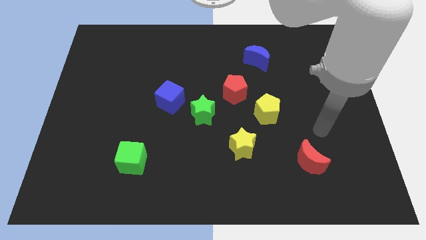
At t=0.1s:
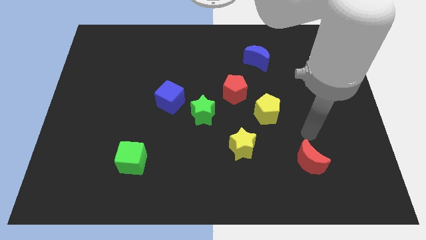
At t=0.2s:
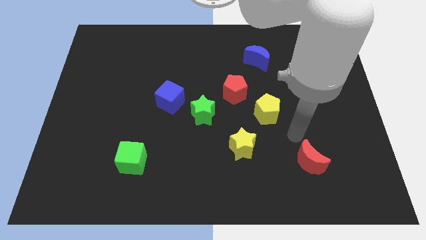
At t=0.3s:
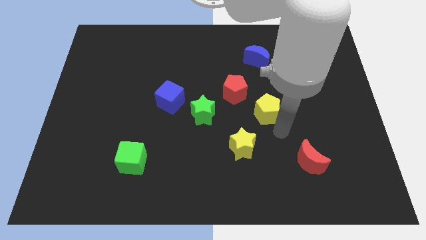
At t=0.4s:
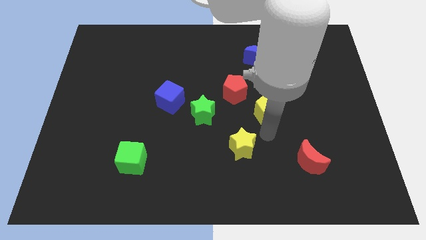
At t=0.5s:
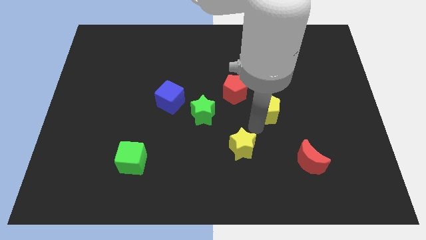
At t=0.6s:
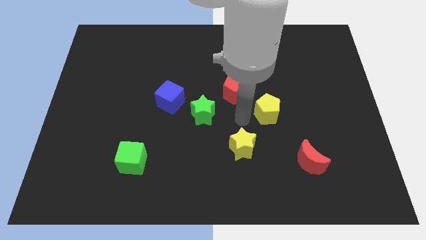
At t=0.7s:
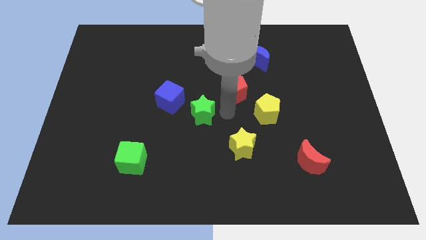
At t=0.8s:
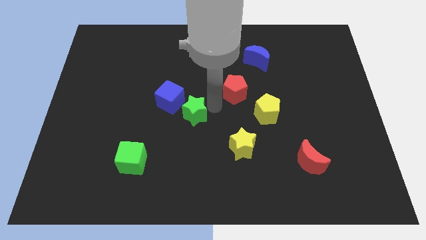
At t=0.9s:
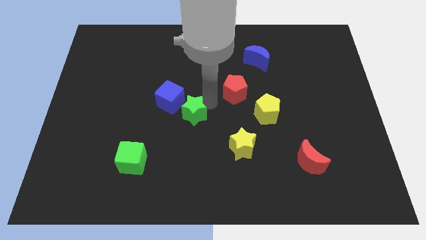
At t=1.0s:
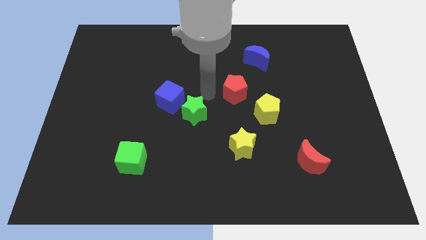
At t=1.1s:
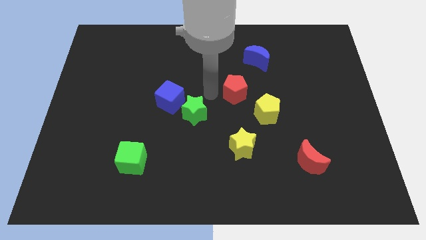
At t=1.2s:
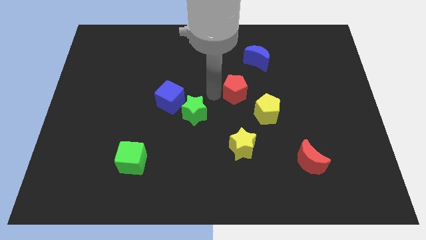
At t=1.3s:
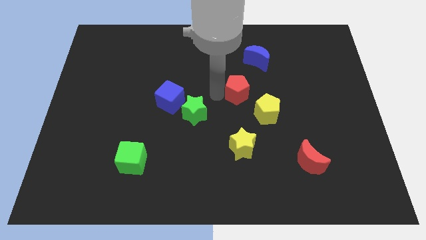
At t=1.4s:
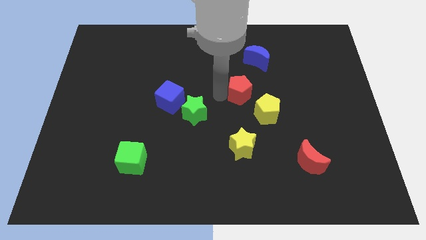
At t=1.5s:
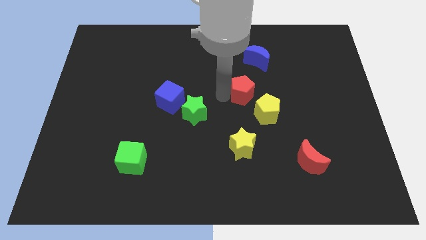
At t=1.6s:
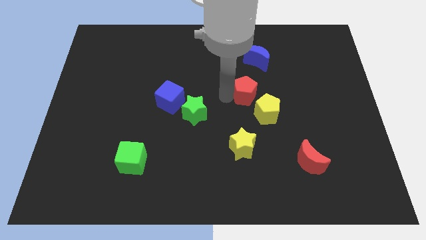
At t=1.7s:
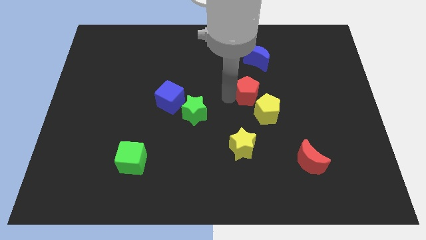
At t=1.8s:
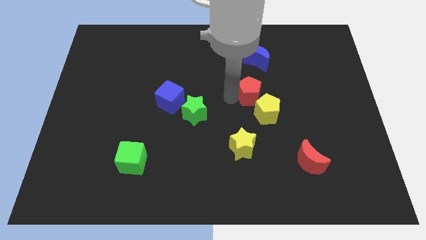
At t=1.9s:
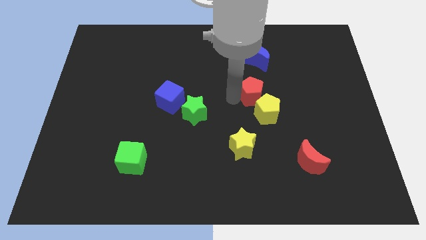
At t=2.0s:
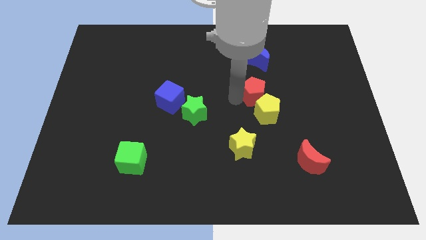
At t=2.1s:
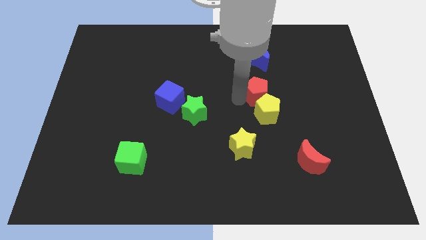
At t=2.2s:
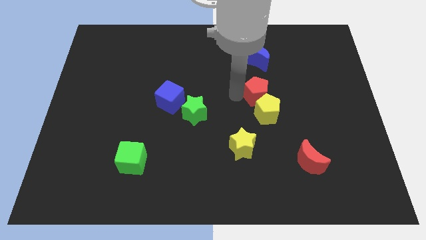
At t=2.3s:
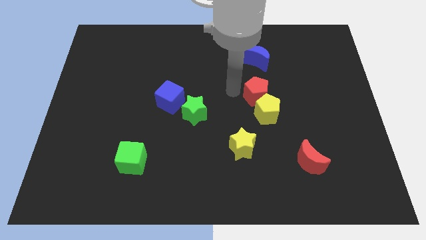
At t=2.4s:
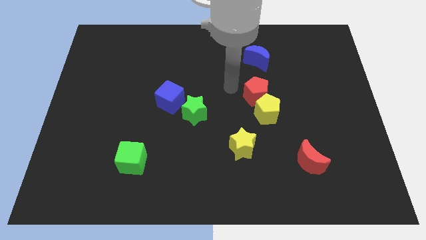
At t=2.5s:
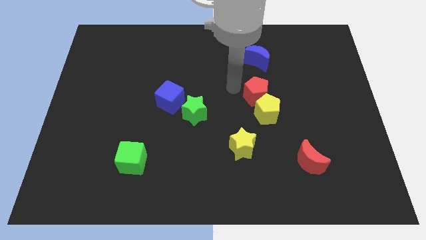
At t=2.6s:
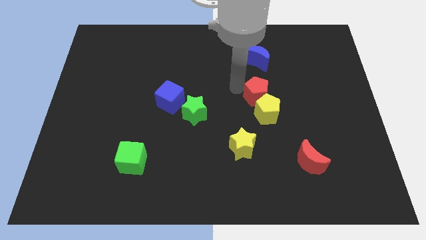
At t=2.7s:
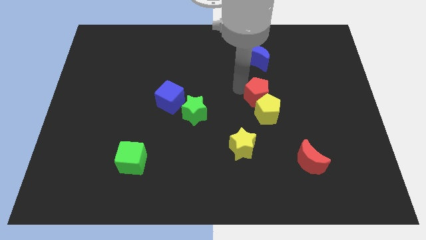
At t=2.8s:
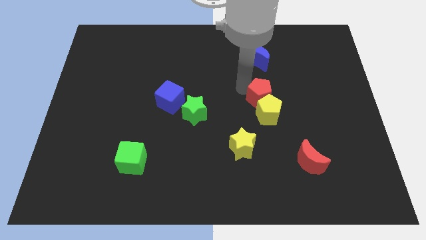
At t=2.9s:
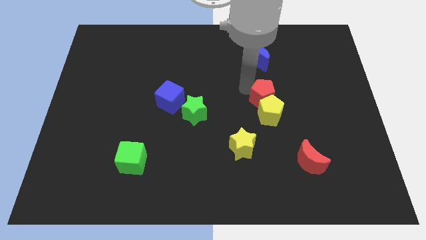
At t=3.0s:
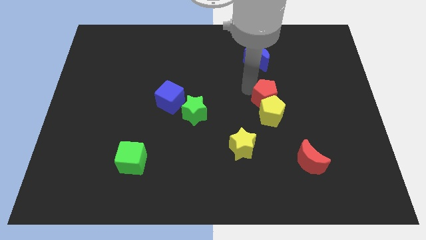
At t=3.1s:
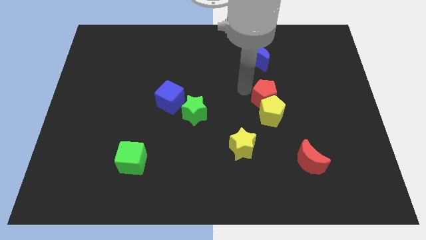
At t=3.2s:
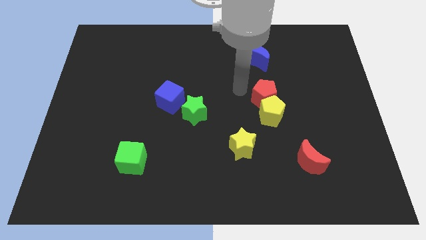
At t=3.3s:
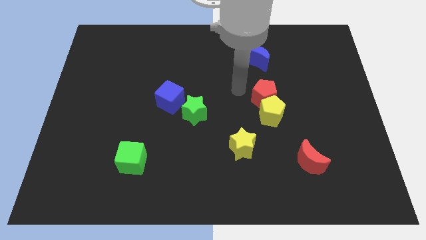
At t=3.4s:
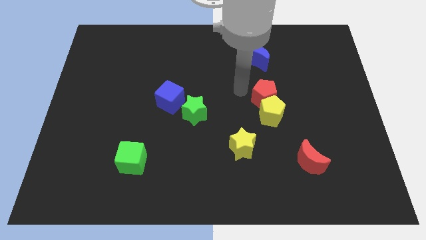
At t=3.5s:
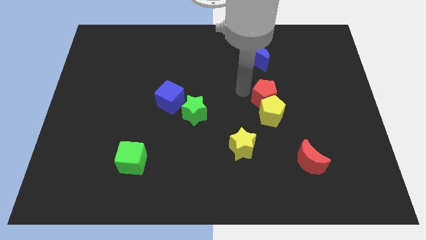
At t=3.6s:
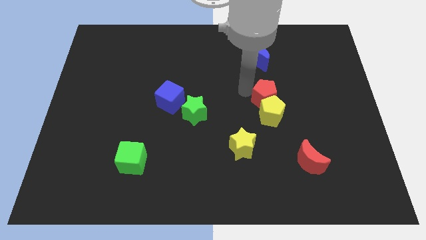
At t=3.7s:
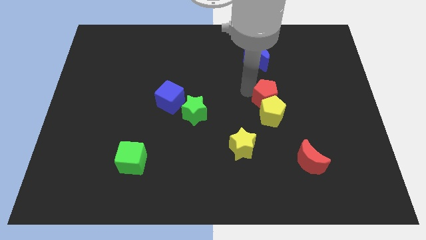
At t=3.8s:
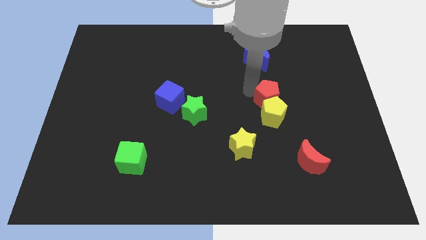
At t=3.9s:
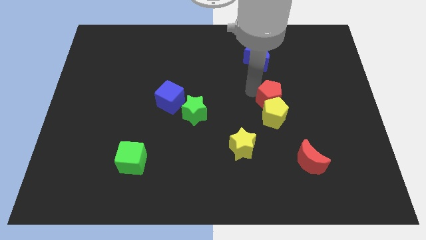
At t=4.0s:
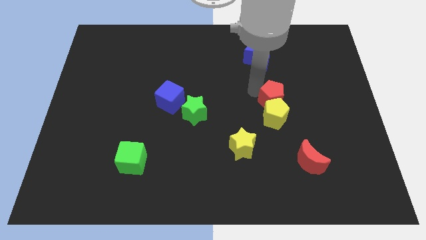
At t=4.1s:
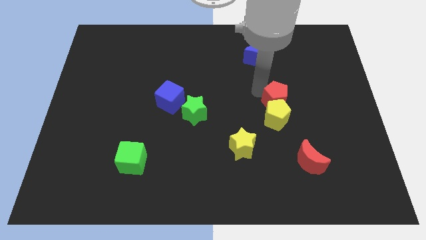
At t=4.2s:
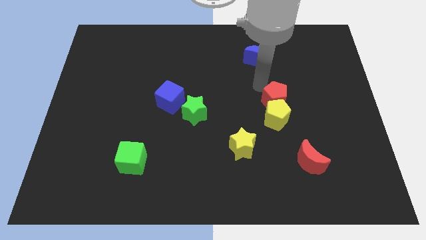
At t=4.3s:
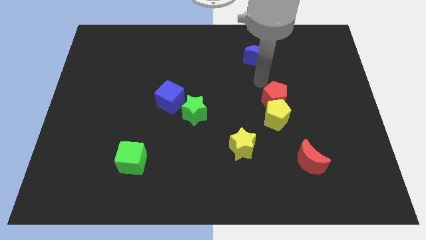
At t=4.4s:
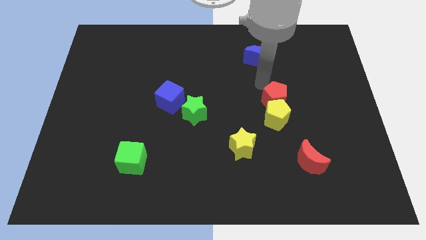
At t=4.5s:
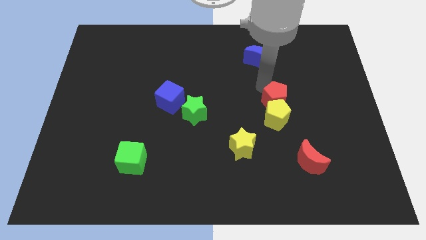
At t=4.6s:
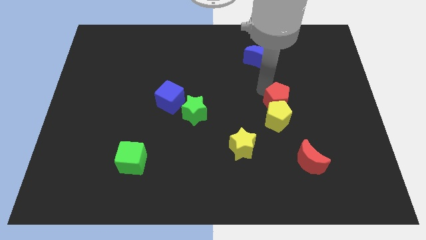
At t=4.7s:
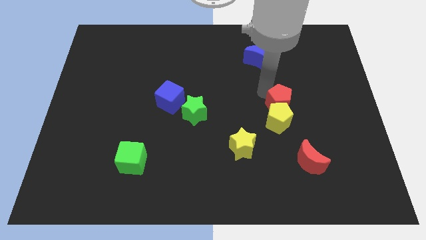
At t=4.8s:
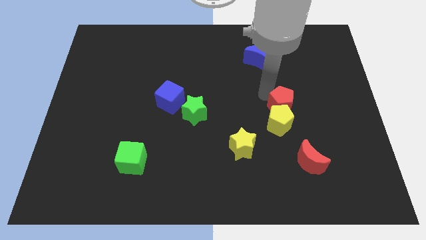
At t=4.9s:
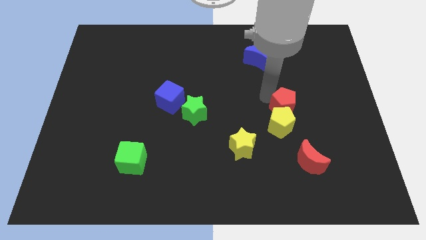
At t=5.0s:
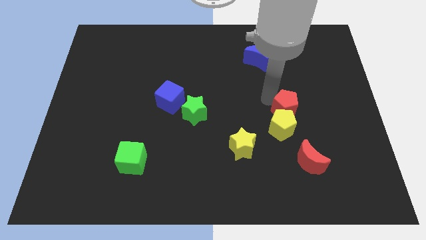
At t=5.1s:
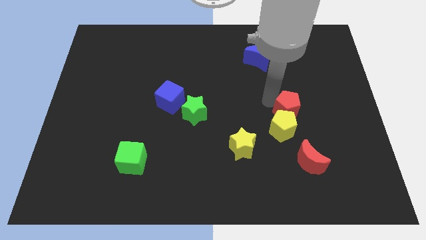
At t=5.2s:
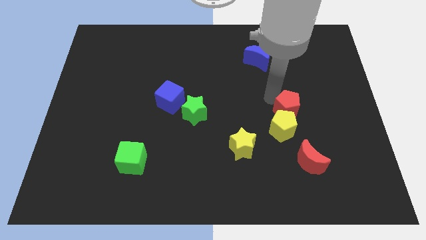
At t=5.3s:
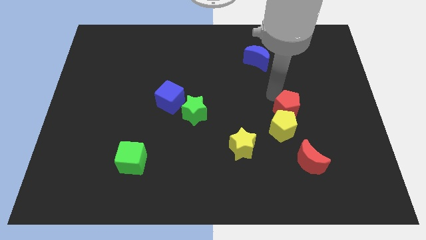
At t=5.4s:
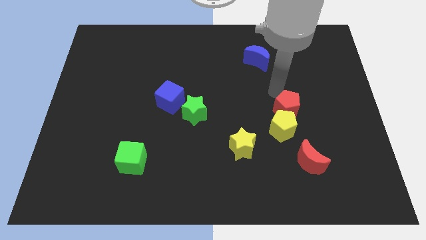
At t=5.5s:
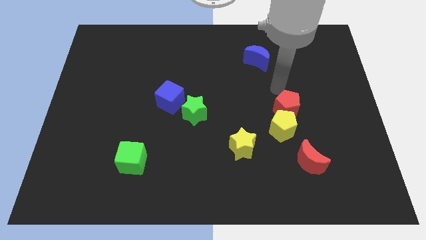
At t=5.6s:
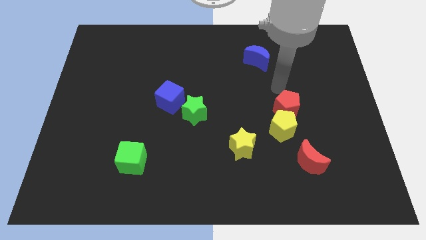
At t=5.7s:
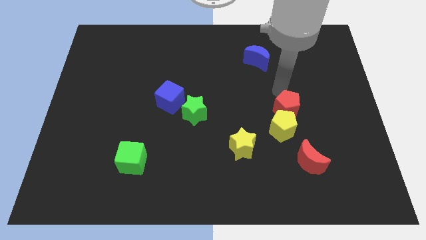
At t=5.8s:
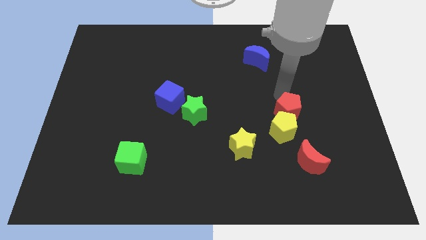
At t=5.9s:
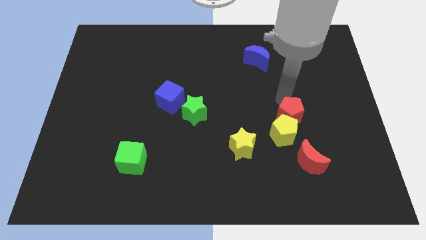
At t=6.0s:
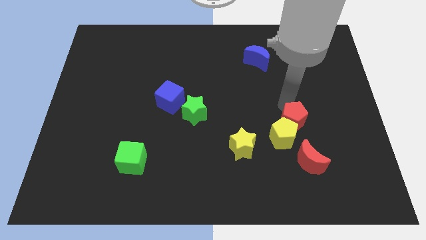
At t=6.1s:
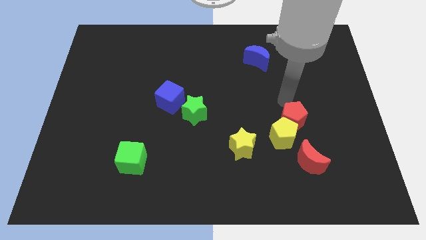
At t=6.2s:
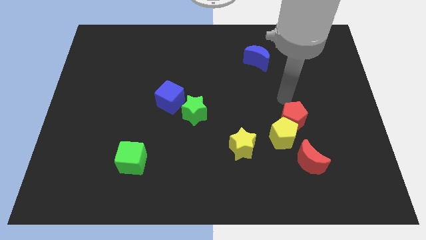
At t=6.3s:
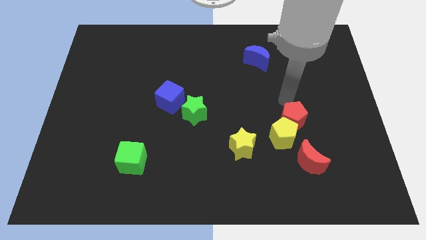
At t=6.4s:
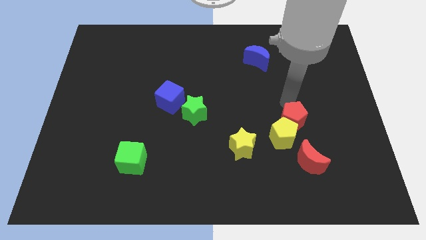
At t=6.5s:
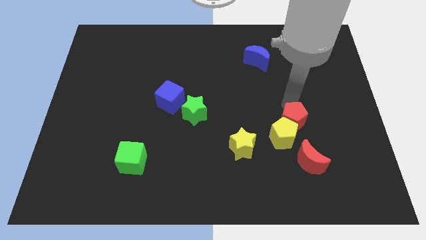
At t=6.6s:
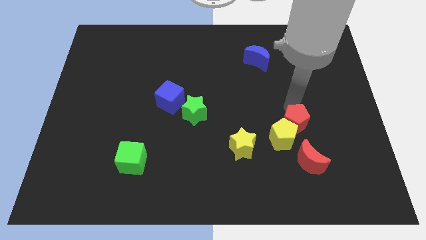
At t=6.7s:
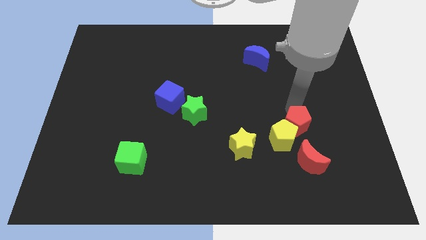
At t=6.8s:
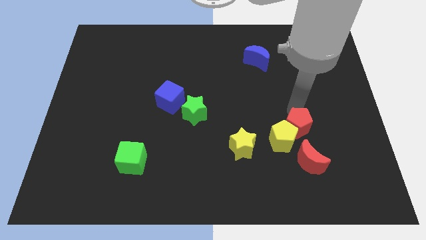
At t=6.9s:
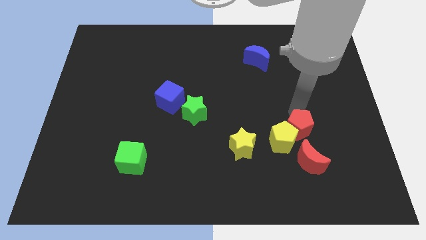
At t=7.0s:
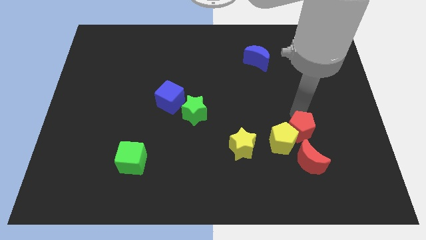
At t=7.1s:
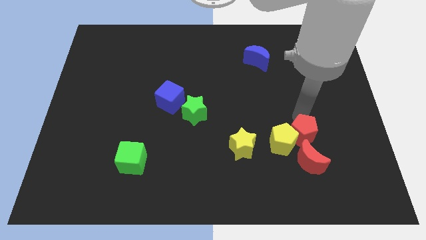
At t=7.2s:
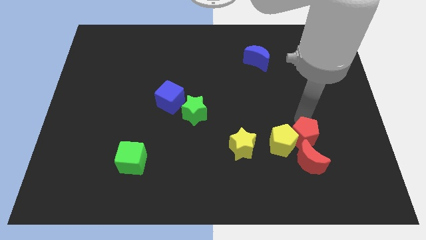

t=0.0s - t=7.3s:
slide the red pentagon towards the red moon

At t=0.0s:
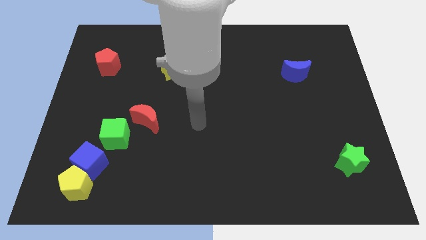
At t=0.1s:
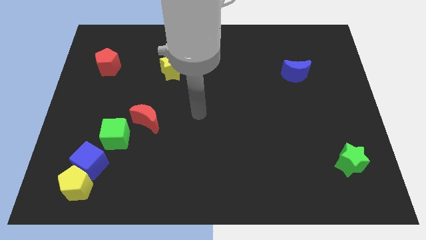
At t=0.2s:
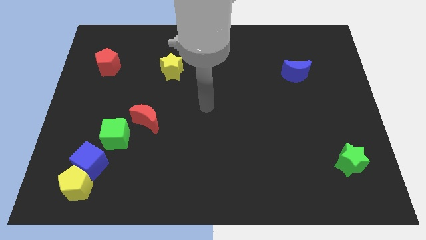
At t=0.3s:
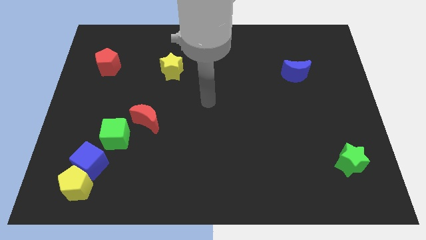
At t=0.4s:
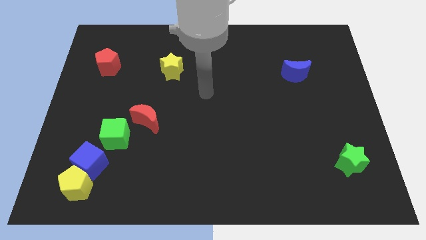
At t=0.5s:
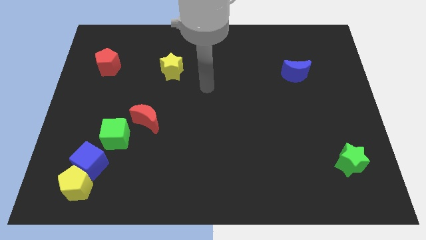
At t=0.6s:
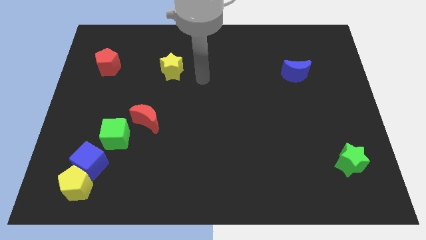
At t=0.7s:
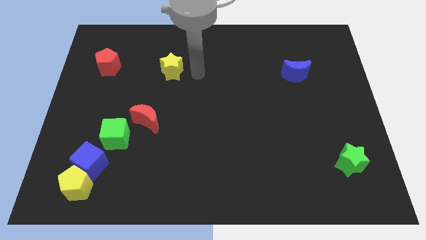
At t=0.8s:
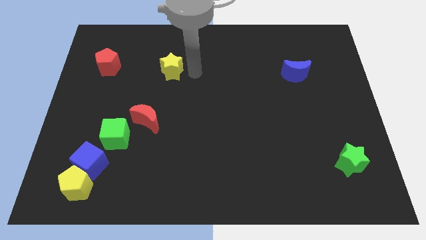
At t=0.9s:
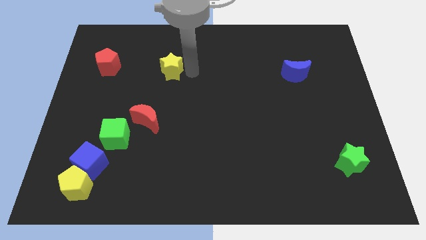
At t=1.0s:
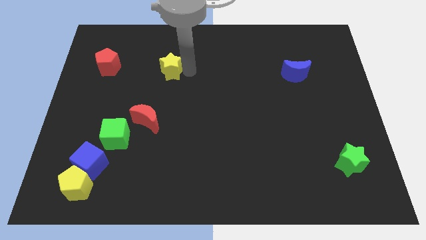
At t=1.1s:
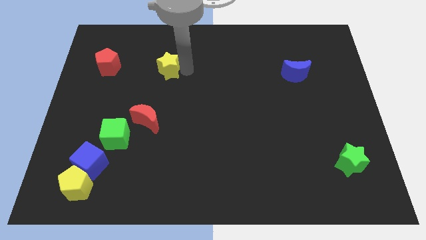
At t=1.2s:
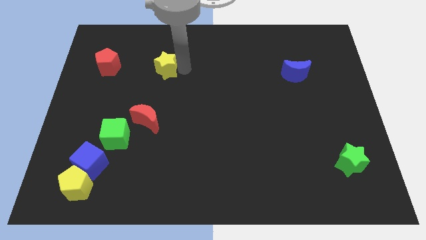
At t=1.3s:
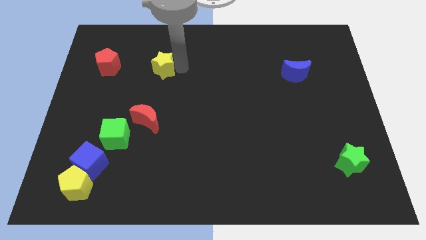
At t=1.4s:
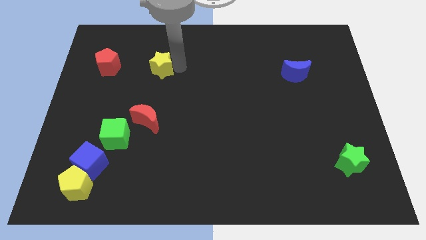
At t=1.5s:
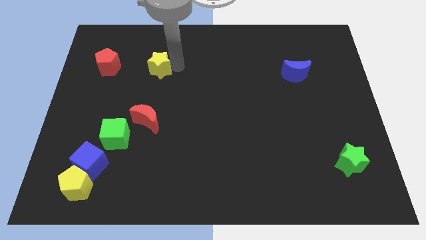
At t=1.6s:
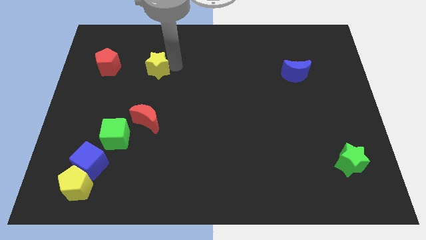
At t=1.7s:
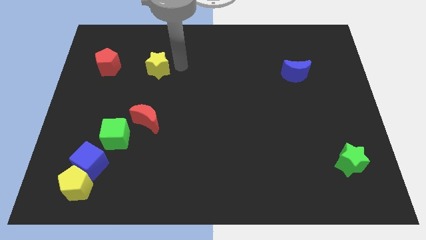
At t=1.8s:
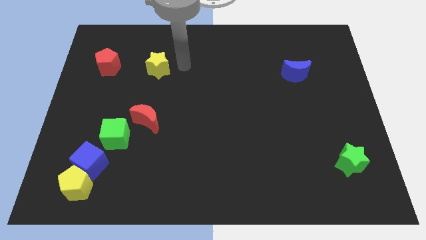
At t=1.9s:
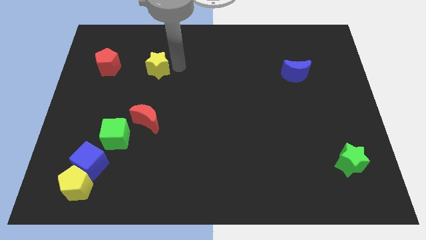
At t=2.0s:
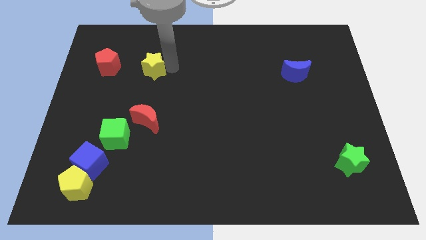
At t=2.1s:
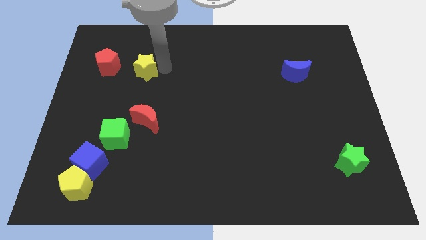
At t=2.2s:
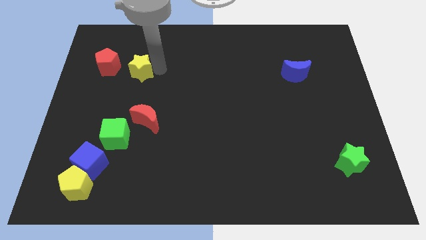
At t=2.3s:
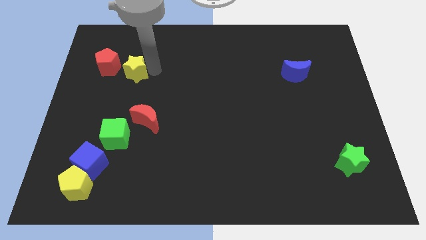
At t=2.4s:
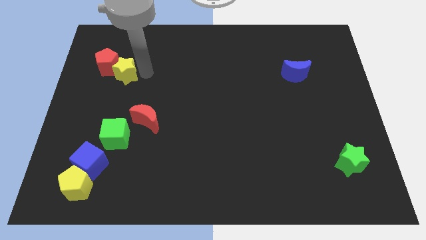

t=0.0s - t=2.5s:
slide the yellow star next to the red pentagon
